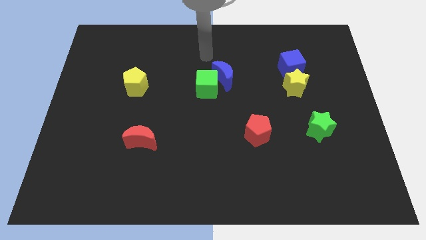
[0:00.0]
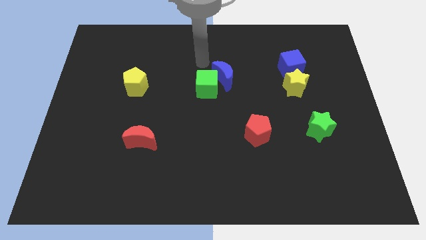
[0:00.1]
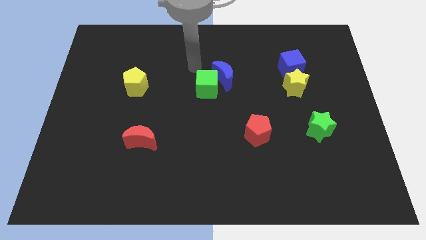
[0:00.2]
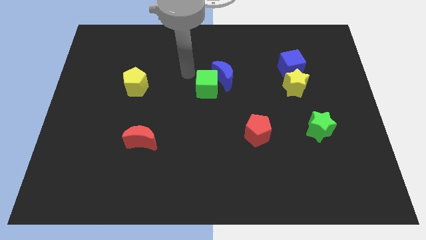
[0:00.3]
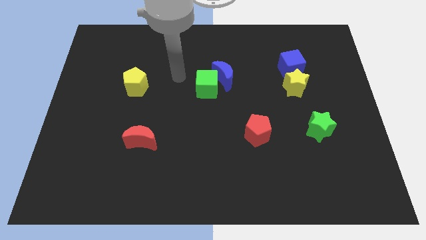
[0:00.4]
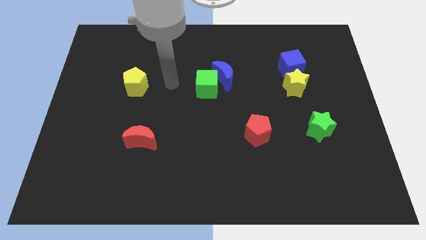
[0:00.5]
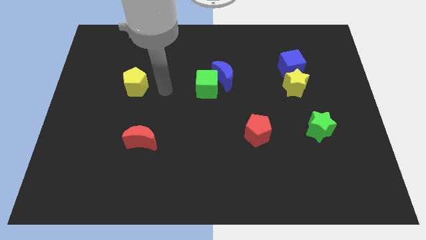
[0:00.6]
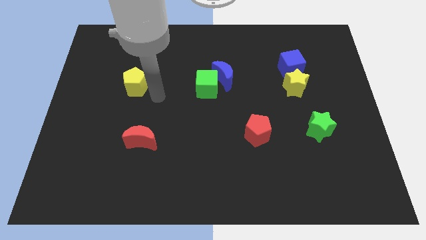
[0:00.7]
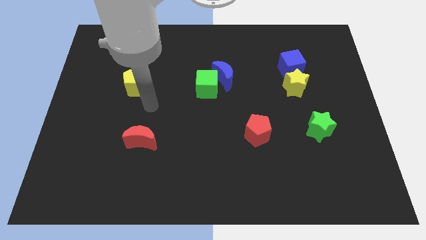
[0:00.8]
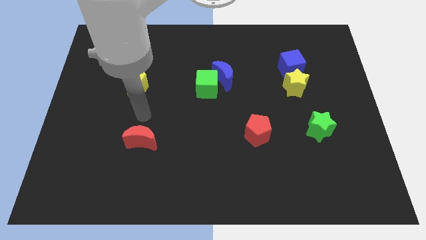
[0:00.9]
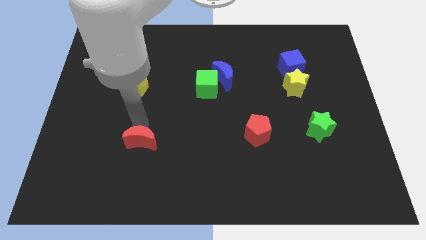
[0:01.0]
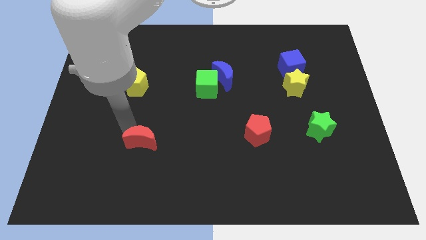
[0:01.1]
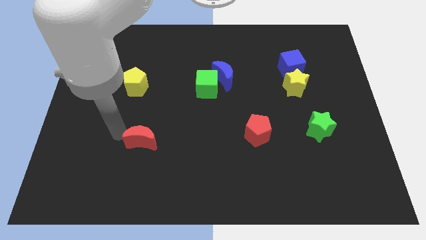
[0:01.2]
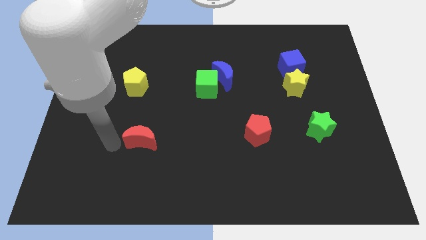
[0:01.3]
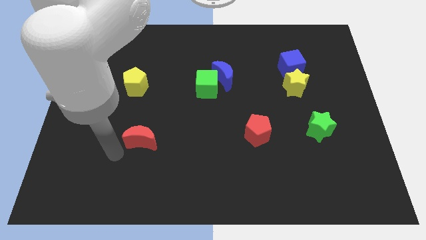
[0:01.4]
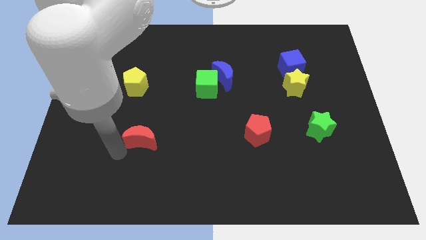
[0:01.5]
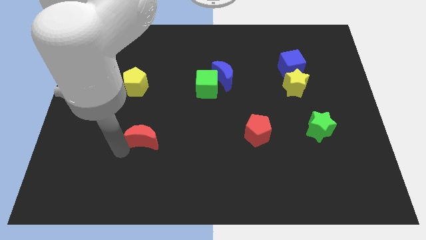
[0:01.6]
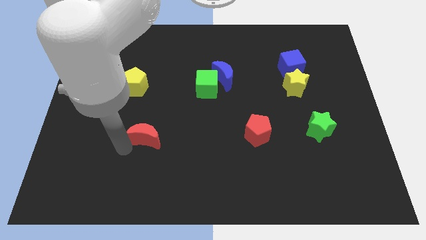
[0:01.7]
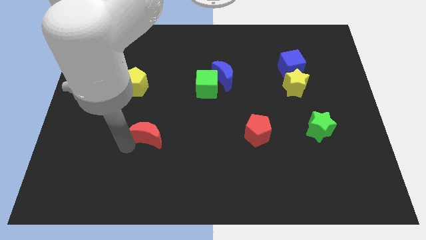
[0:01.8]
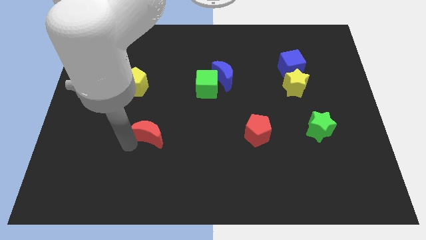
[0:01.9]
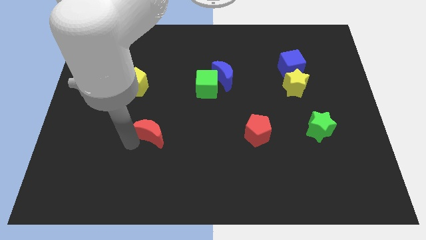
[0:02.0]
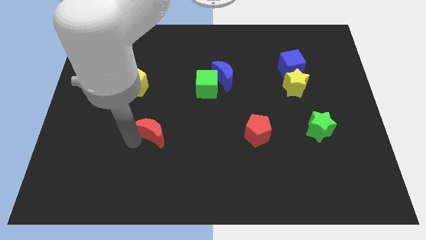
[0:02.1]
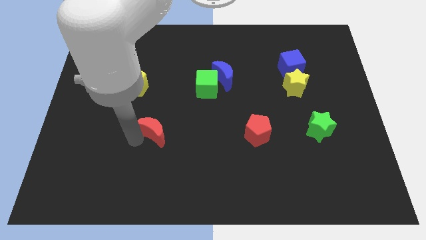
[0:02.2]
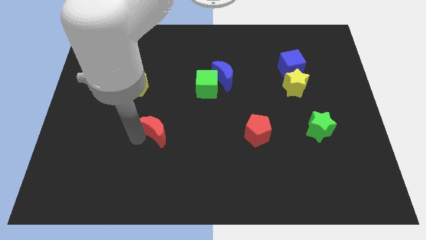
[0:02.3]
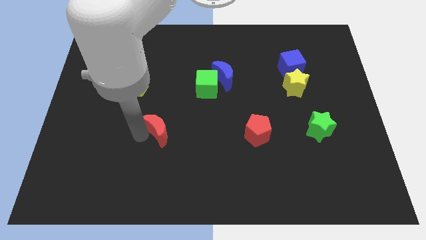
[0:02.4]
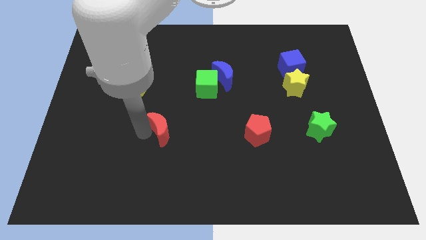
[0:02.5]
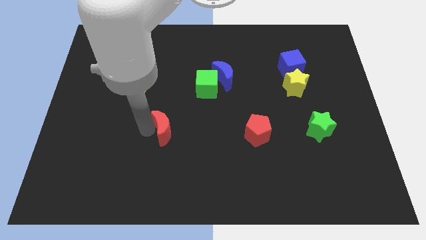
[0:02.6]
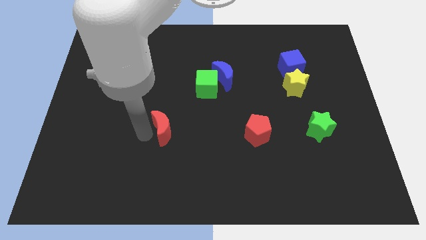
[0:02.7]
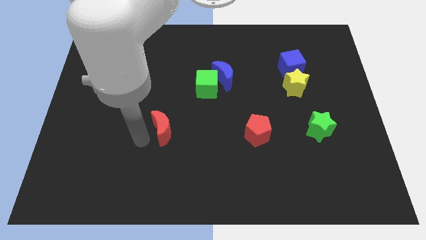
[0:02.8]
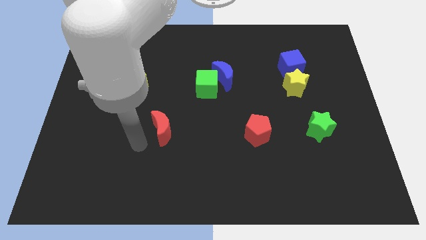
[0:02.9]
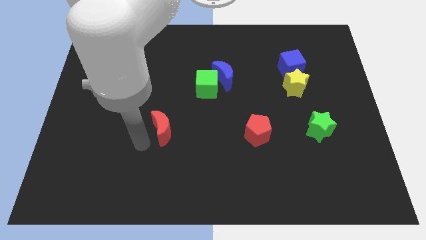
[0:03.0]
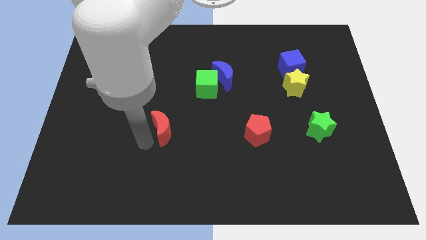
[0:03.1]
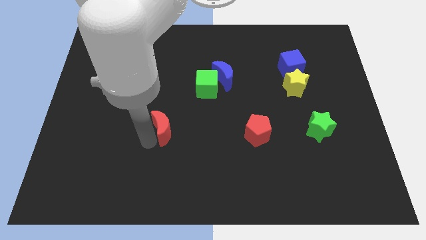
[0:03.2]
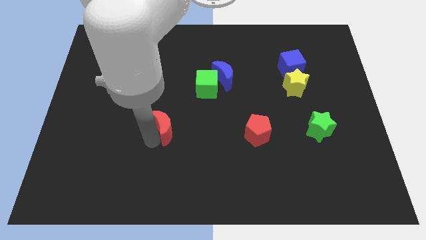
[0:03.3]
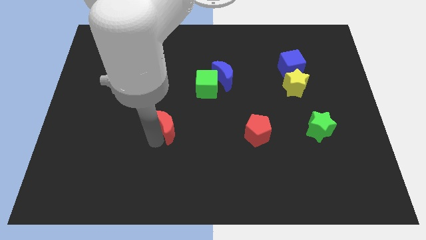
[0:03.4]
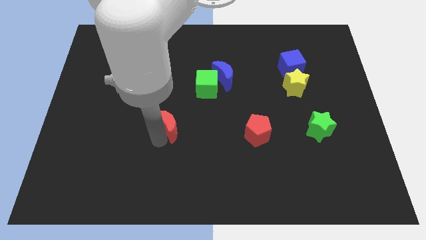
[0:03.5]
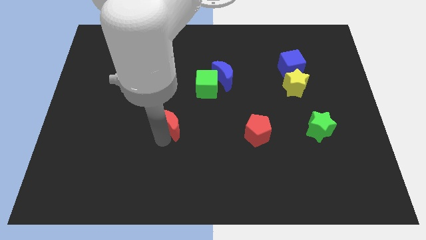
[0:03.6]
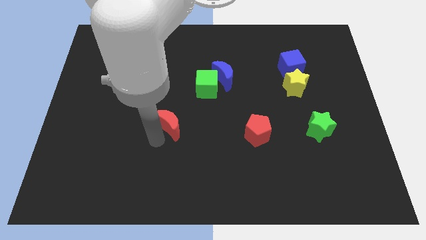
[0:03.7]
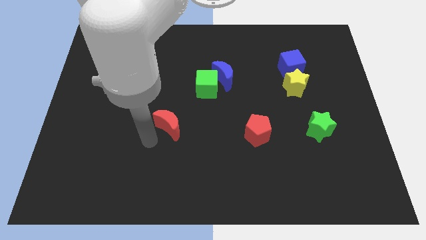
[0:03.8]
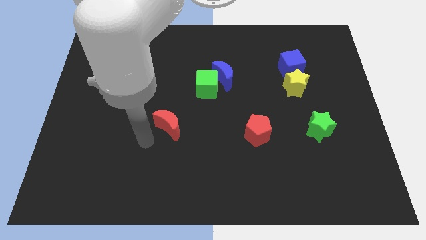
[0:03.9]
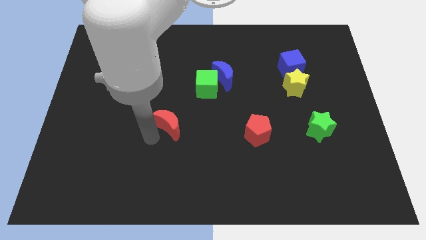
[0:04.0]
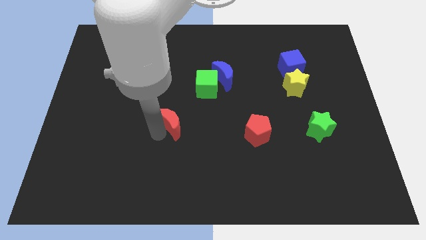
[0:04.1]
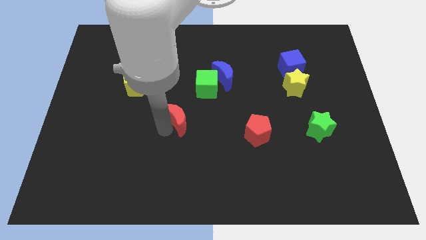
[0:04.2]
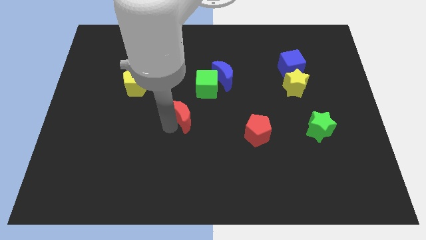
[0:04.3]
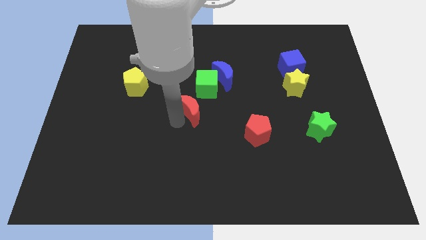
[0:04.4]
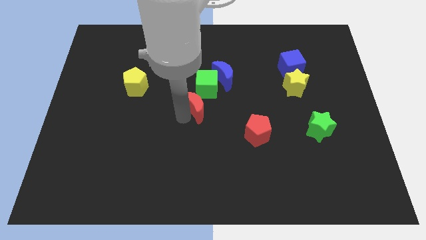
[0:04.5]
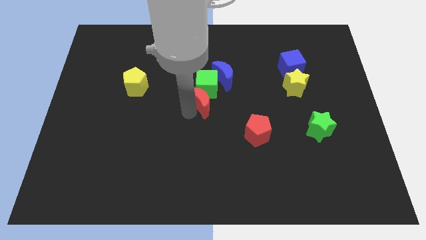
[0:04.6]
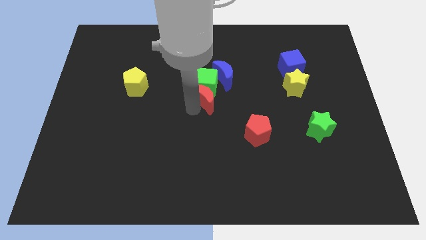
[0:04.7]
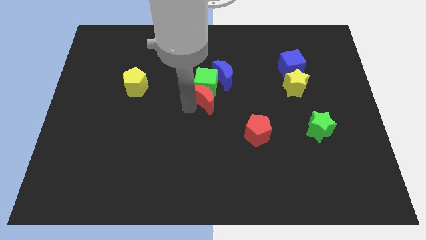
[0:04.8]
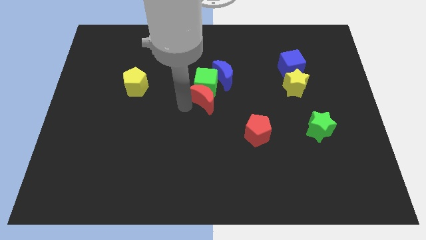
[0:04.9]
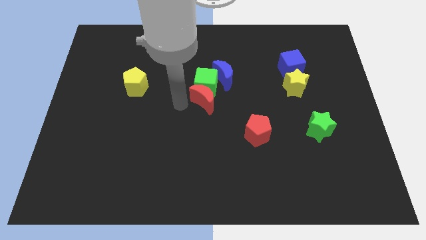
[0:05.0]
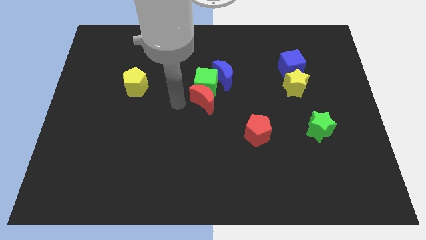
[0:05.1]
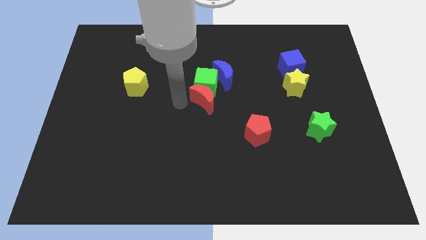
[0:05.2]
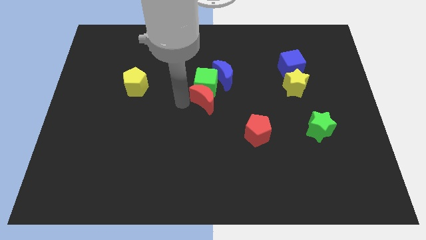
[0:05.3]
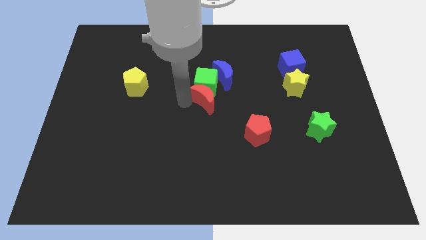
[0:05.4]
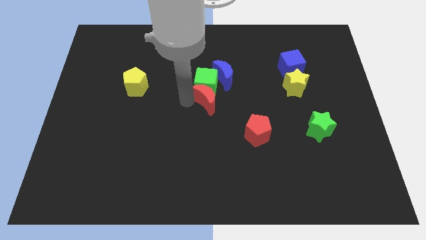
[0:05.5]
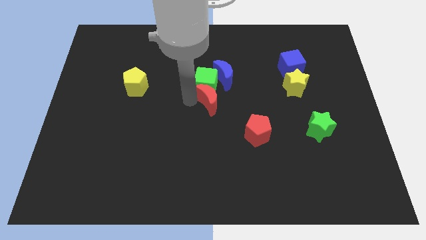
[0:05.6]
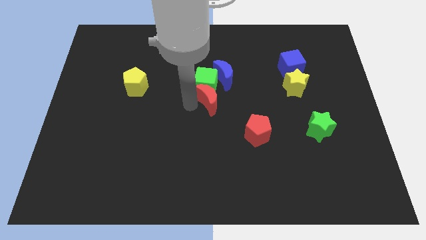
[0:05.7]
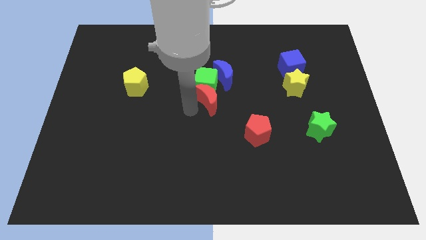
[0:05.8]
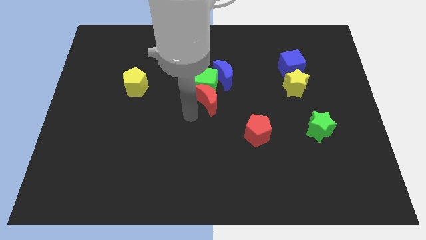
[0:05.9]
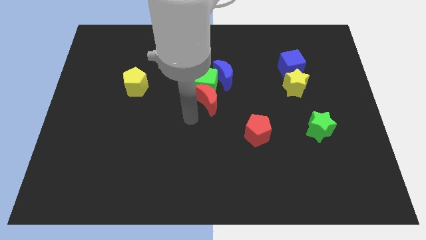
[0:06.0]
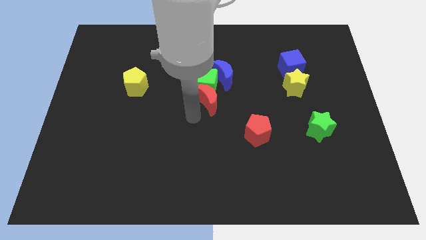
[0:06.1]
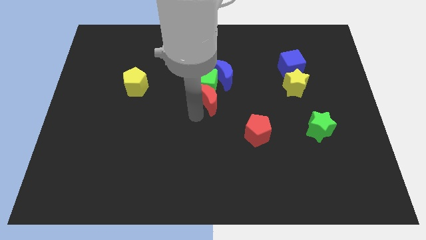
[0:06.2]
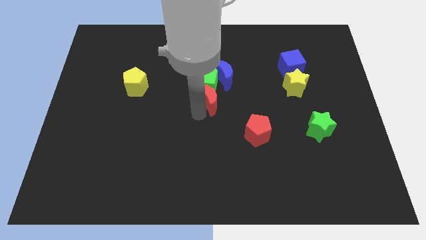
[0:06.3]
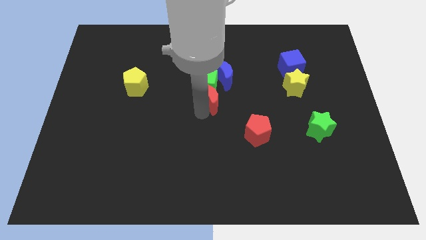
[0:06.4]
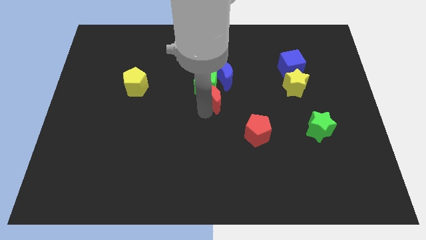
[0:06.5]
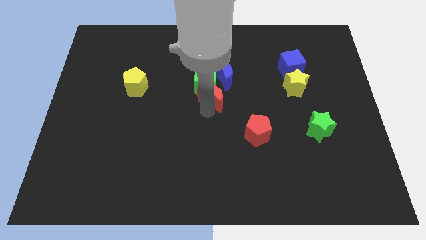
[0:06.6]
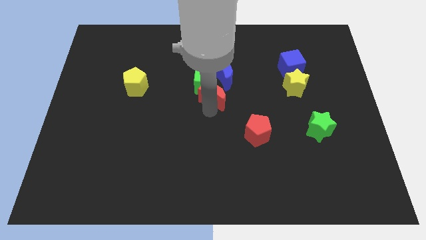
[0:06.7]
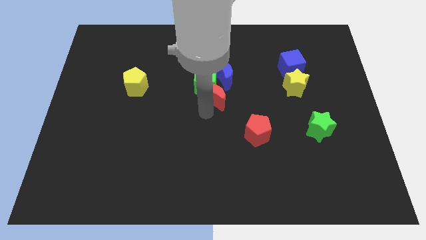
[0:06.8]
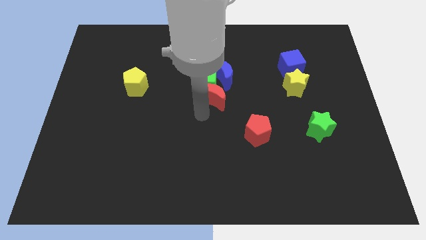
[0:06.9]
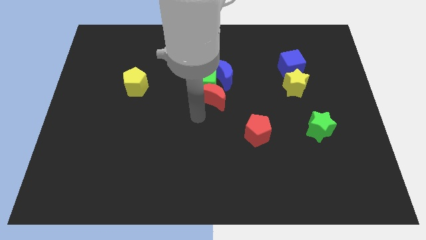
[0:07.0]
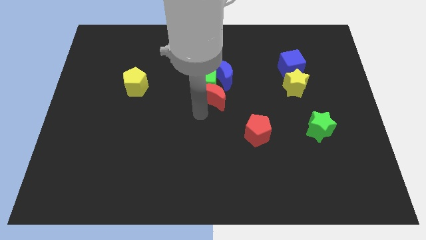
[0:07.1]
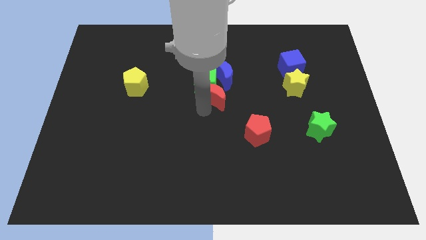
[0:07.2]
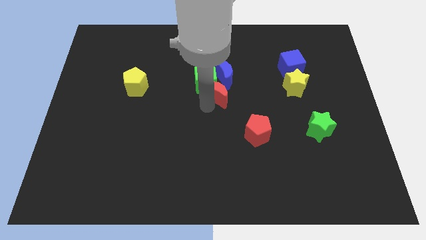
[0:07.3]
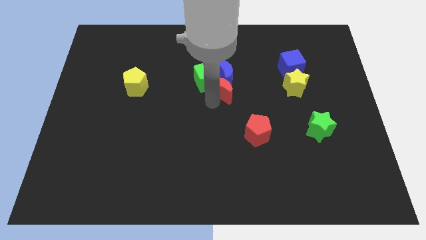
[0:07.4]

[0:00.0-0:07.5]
move the red moon close to the blue moon
